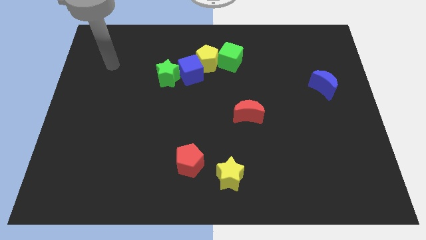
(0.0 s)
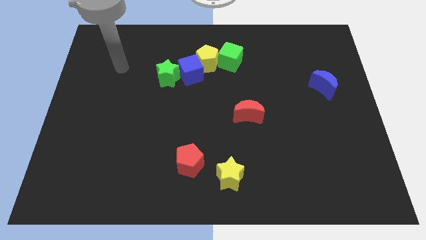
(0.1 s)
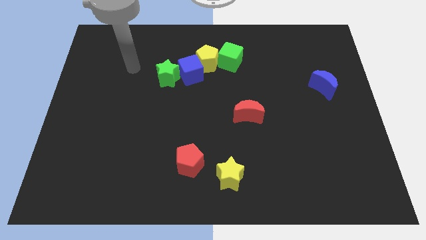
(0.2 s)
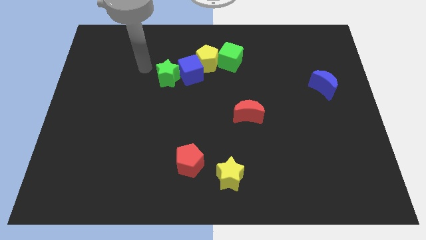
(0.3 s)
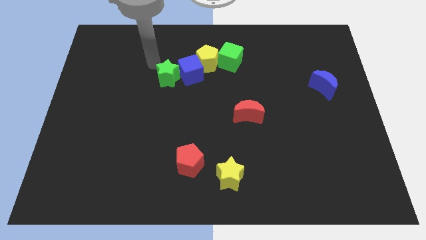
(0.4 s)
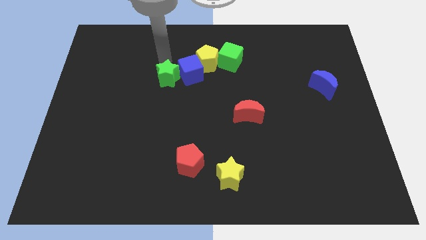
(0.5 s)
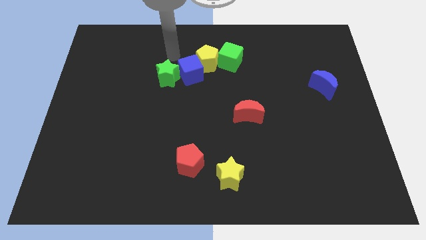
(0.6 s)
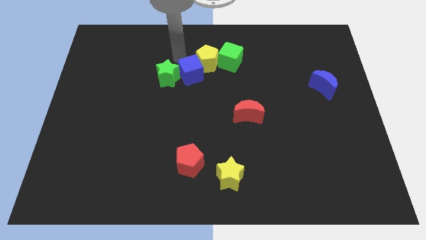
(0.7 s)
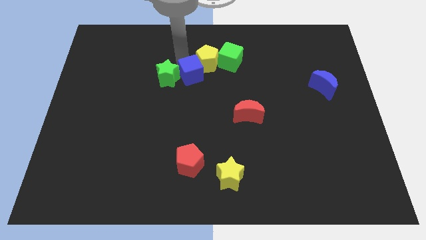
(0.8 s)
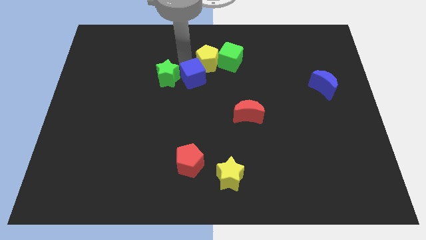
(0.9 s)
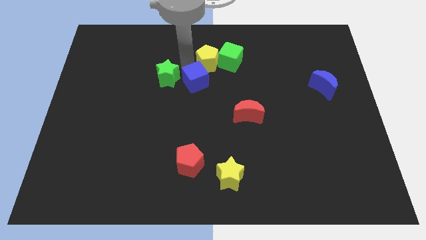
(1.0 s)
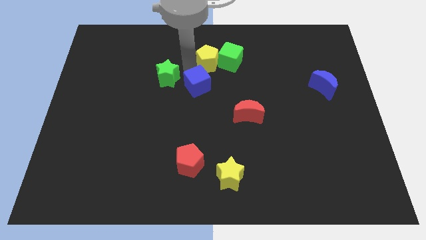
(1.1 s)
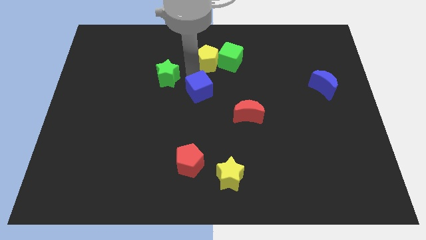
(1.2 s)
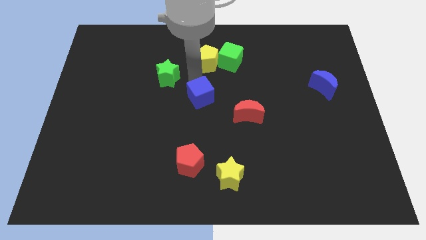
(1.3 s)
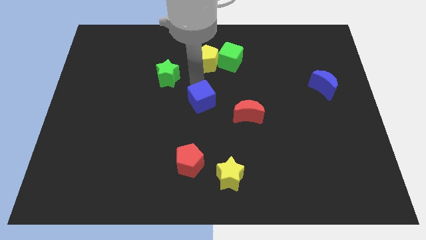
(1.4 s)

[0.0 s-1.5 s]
separate the blue cube from the yellow pentagon and green star

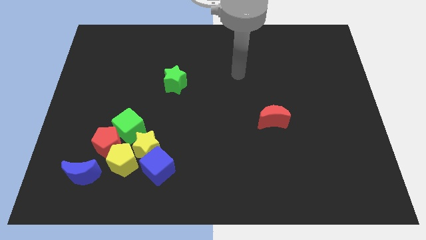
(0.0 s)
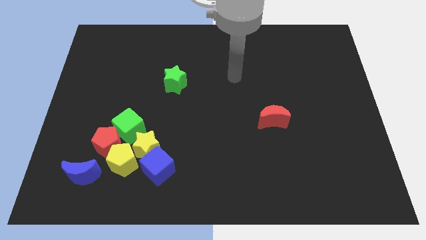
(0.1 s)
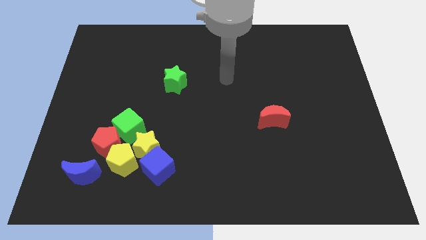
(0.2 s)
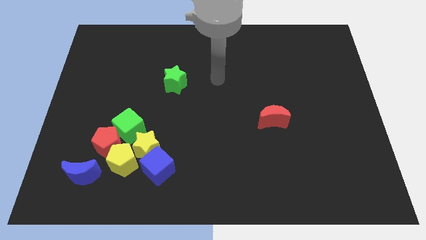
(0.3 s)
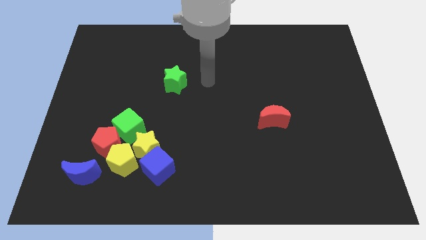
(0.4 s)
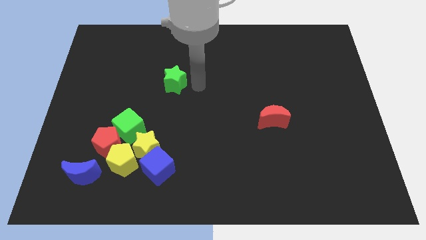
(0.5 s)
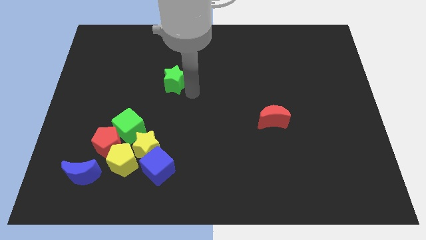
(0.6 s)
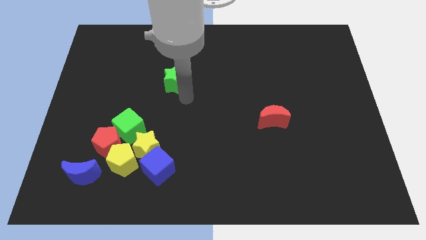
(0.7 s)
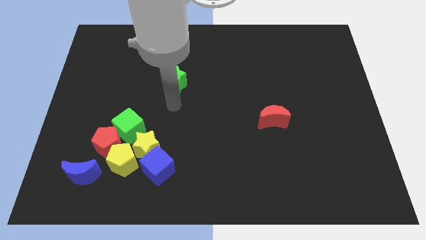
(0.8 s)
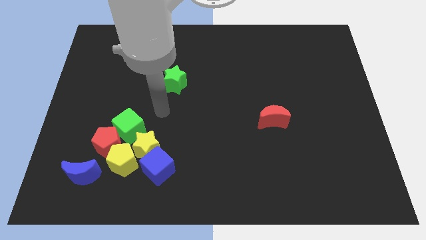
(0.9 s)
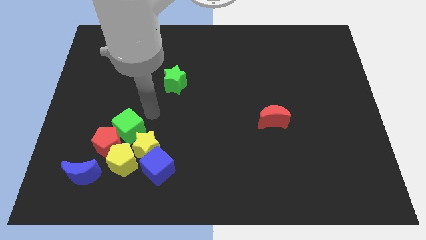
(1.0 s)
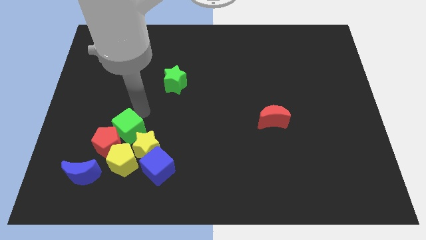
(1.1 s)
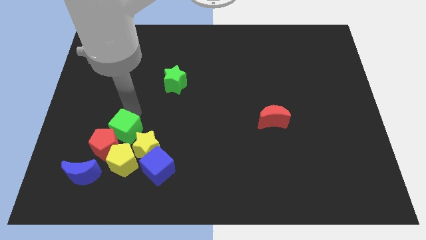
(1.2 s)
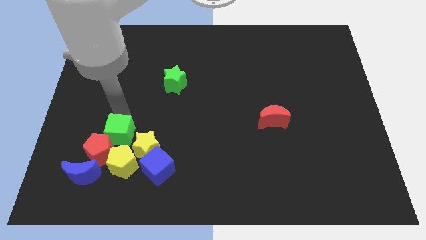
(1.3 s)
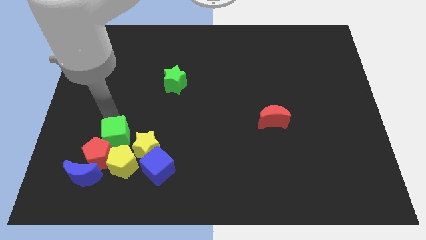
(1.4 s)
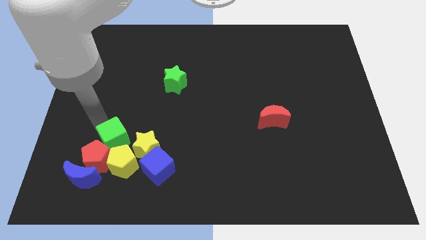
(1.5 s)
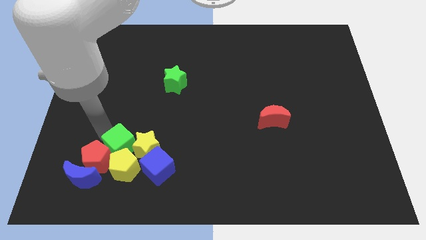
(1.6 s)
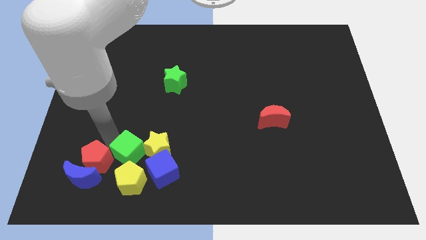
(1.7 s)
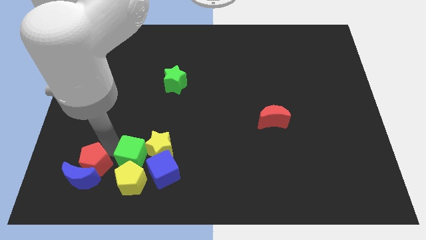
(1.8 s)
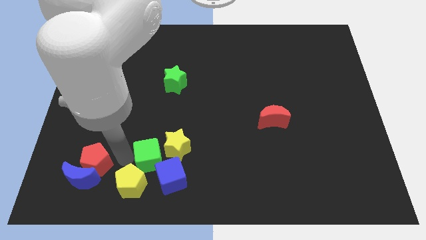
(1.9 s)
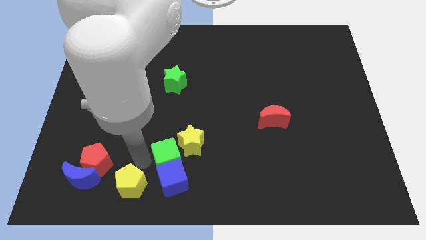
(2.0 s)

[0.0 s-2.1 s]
separate the yellow star from the group

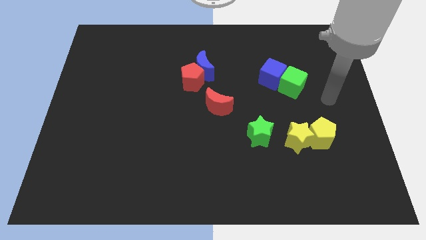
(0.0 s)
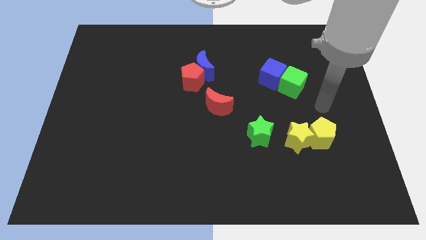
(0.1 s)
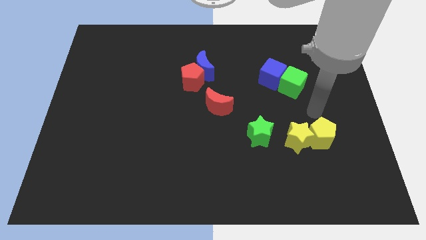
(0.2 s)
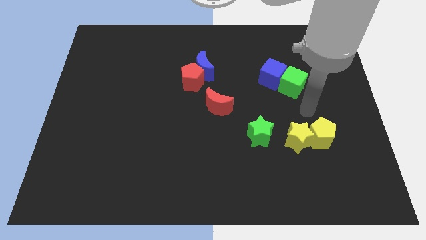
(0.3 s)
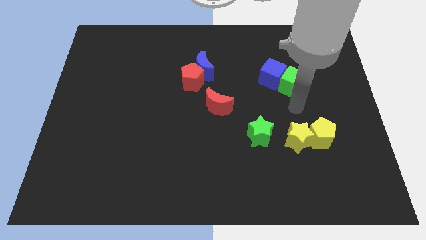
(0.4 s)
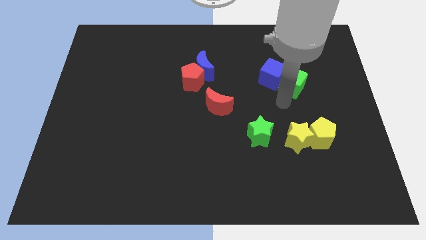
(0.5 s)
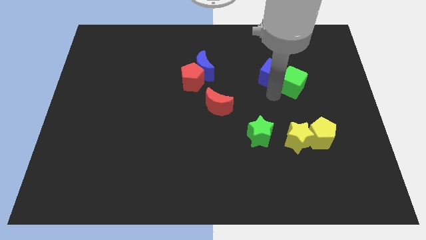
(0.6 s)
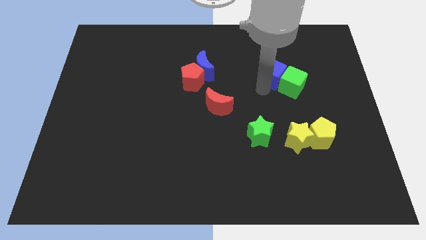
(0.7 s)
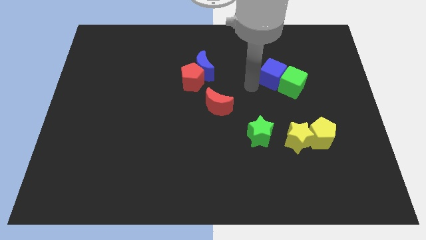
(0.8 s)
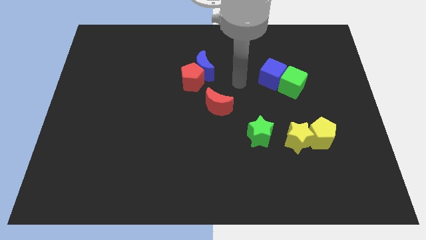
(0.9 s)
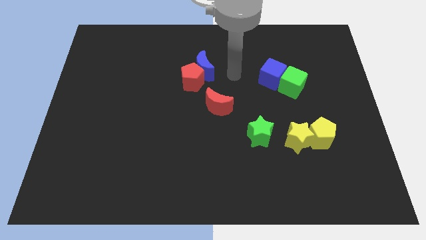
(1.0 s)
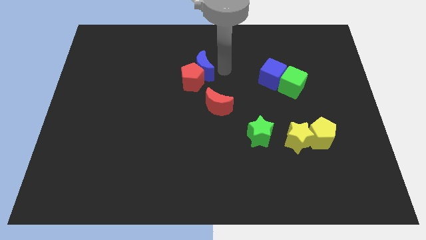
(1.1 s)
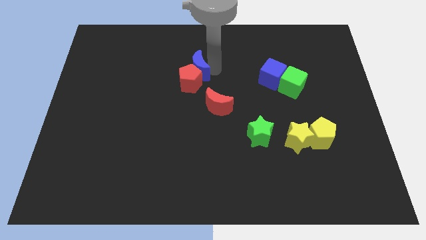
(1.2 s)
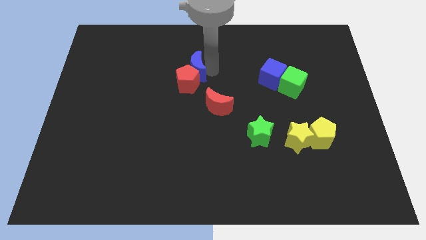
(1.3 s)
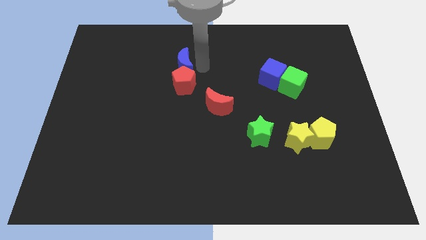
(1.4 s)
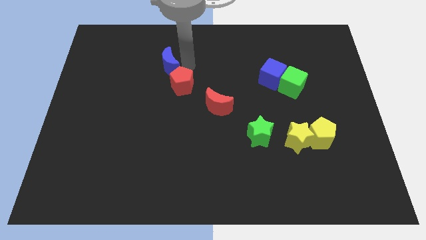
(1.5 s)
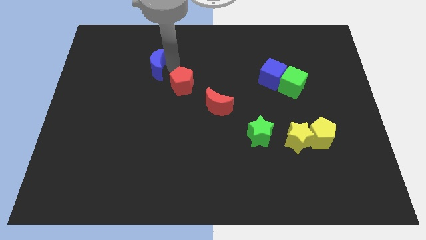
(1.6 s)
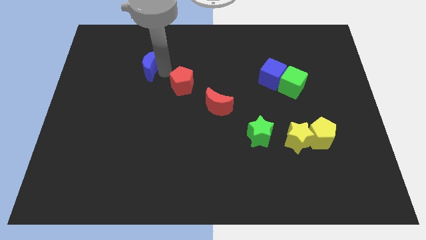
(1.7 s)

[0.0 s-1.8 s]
separate the red pentagon from the blue moon

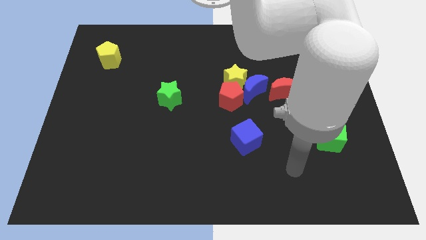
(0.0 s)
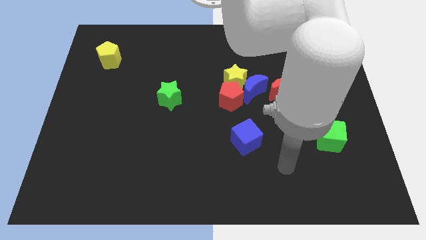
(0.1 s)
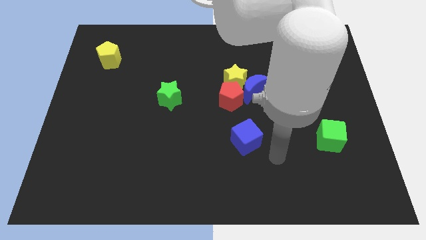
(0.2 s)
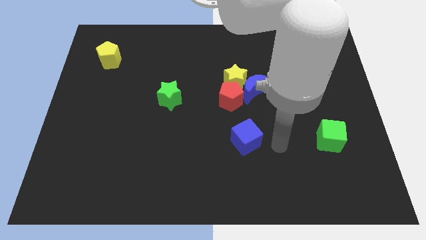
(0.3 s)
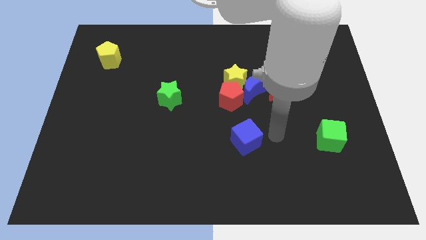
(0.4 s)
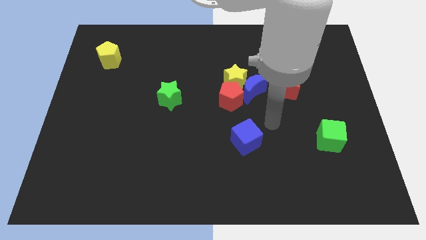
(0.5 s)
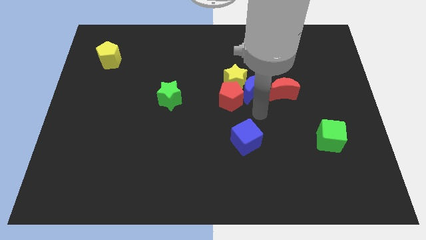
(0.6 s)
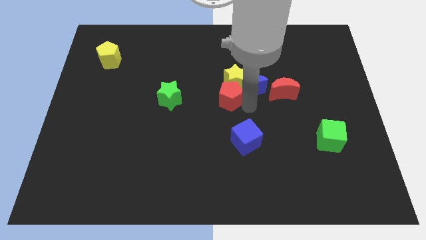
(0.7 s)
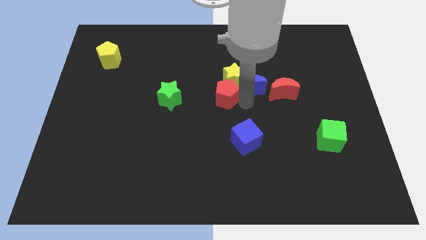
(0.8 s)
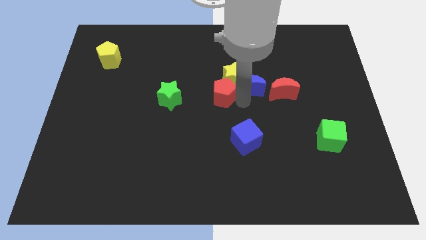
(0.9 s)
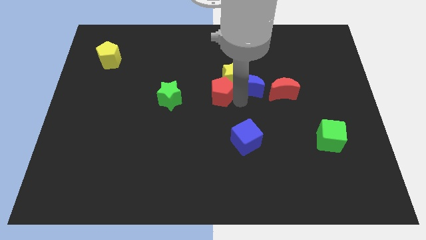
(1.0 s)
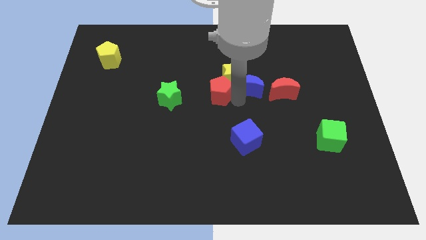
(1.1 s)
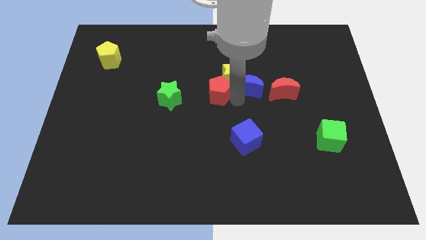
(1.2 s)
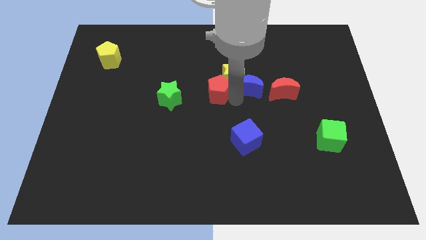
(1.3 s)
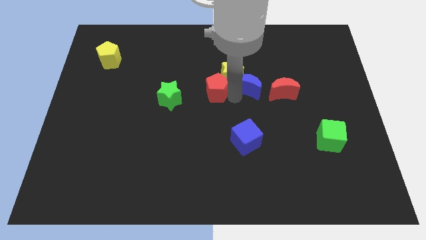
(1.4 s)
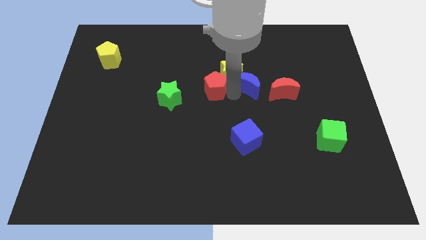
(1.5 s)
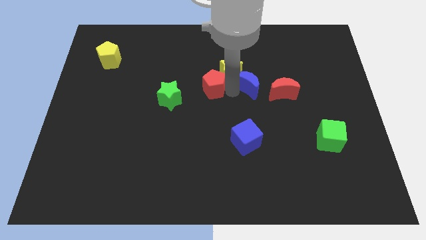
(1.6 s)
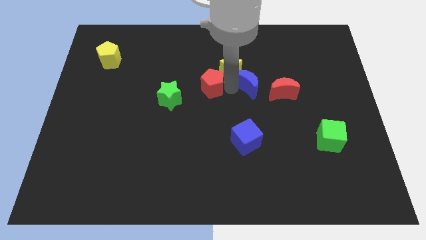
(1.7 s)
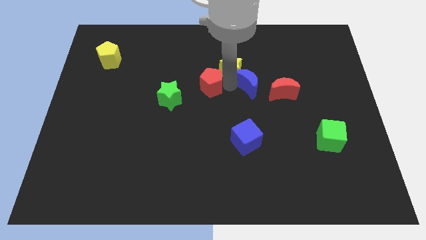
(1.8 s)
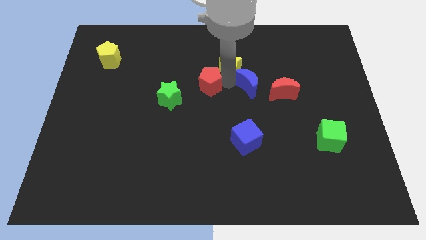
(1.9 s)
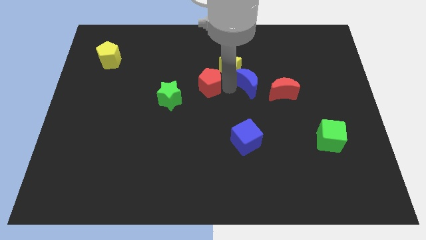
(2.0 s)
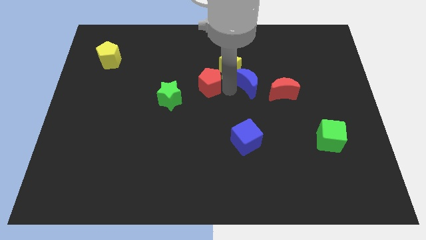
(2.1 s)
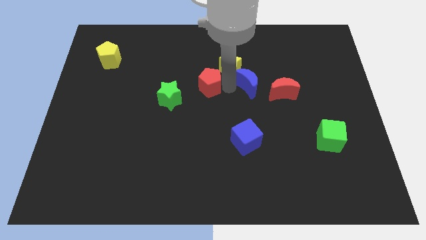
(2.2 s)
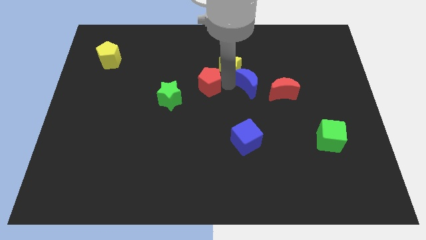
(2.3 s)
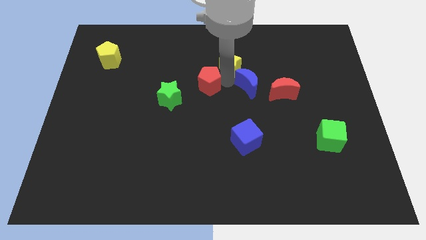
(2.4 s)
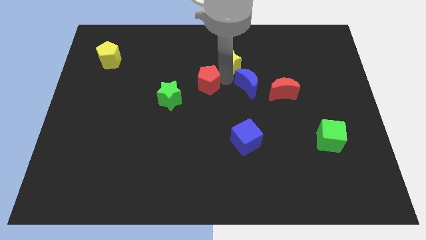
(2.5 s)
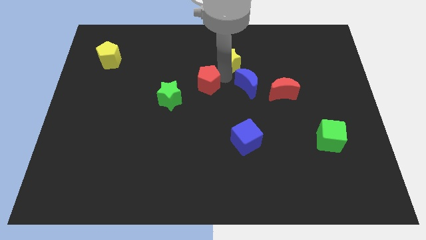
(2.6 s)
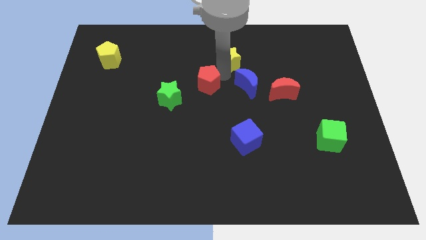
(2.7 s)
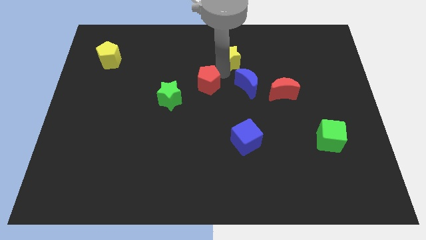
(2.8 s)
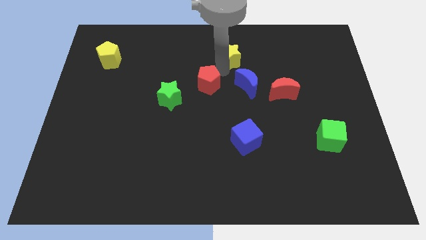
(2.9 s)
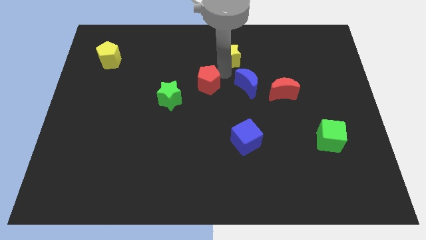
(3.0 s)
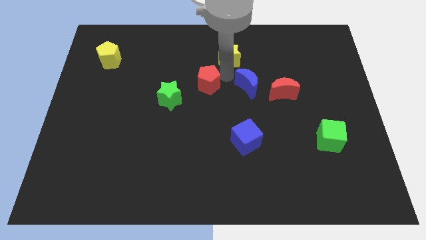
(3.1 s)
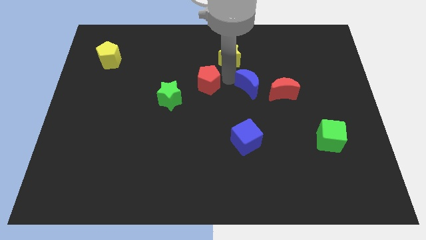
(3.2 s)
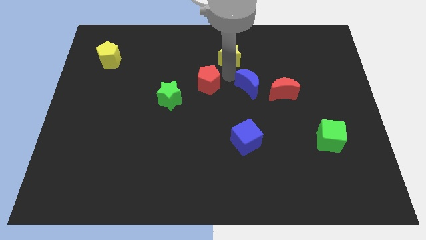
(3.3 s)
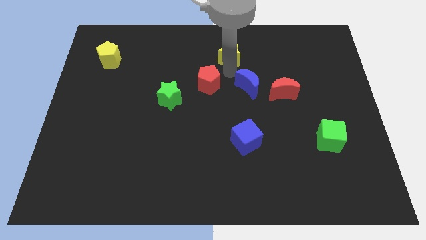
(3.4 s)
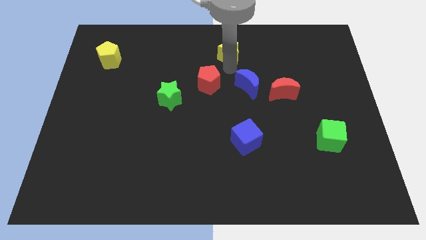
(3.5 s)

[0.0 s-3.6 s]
pull the yellow star apart from the blue moon and red pentagon

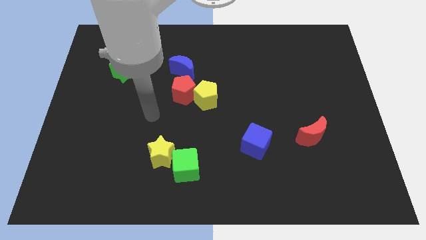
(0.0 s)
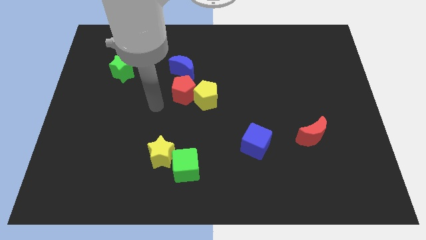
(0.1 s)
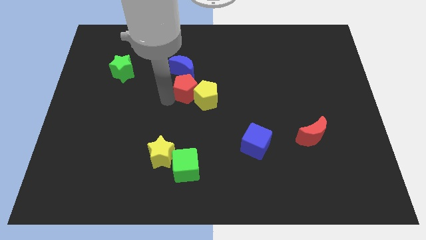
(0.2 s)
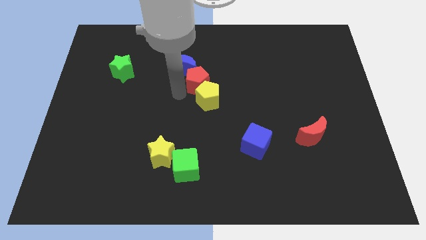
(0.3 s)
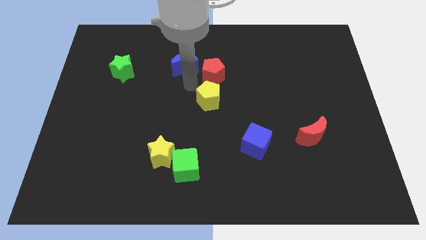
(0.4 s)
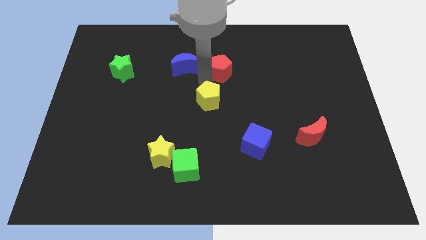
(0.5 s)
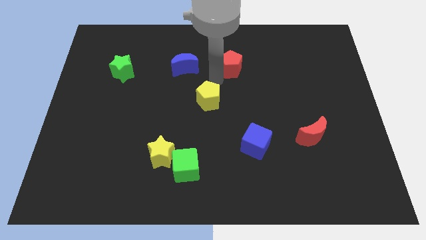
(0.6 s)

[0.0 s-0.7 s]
pull the yellow pentagon apart from the red pentagon
